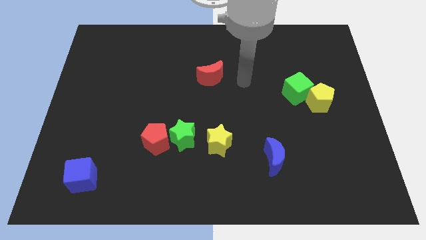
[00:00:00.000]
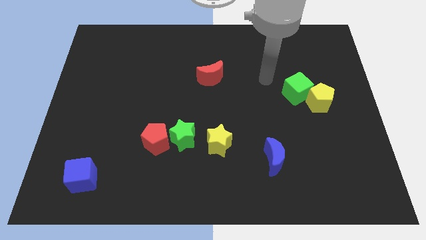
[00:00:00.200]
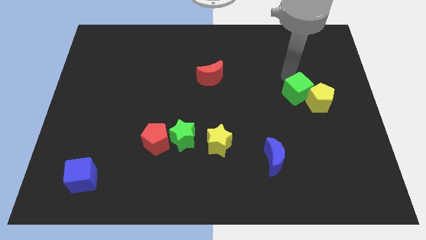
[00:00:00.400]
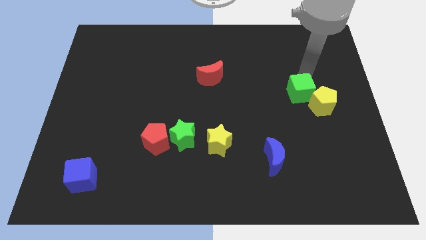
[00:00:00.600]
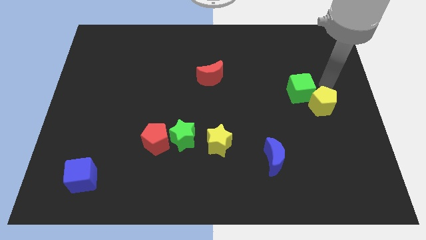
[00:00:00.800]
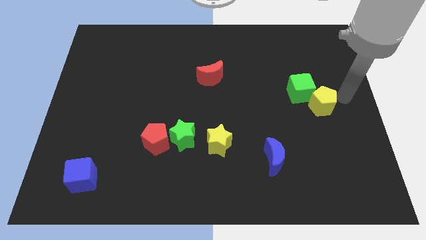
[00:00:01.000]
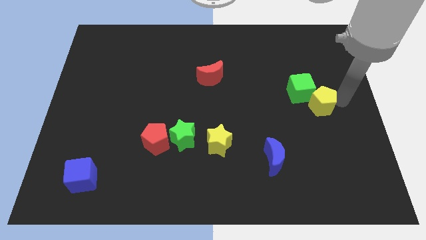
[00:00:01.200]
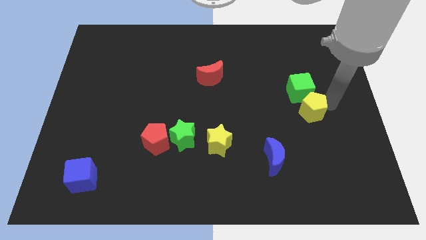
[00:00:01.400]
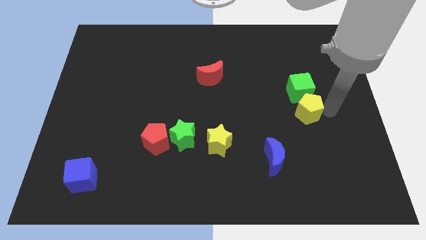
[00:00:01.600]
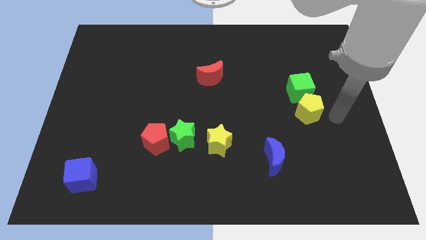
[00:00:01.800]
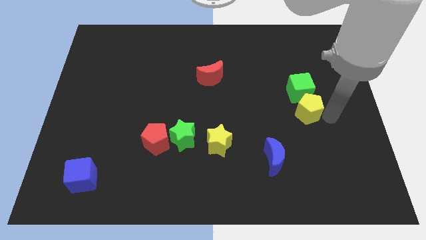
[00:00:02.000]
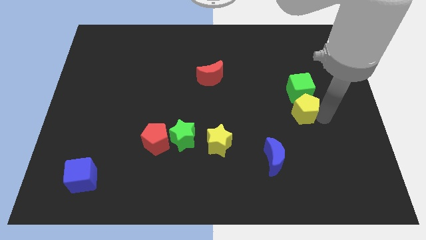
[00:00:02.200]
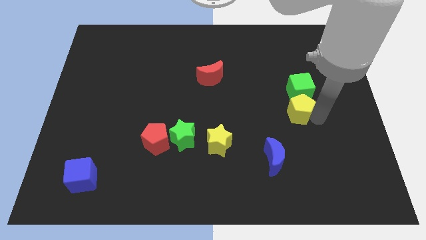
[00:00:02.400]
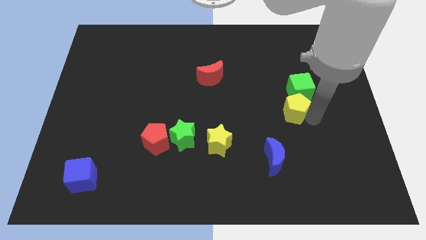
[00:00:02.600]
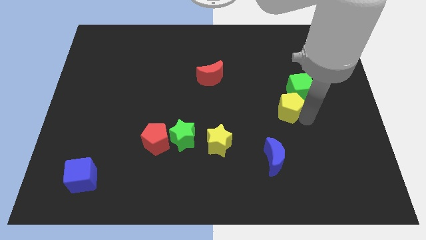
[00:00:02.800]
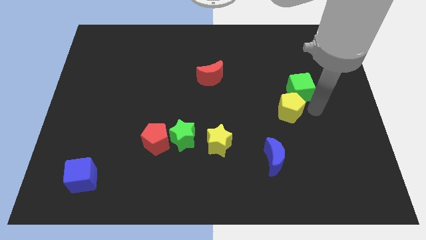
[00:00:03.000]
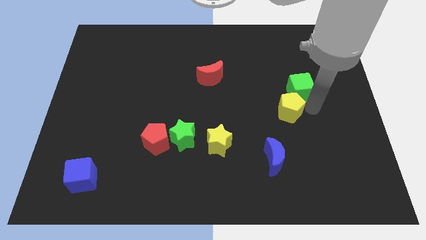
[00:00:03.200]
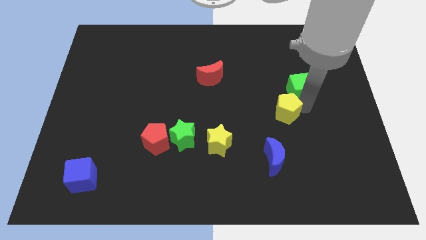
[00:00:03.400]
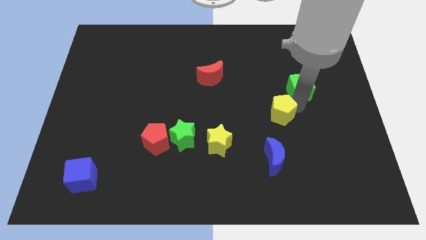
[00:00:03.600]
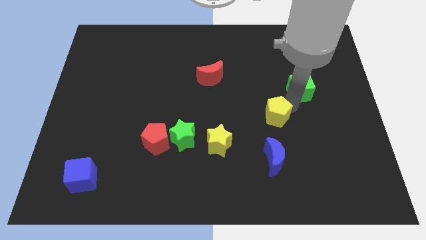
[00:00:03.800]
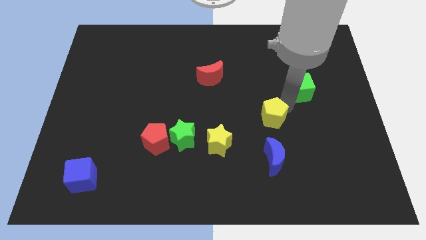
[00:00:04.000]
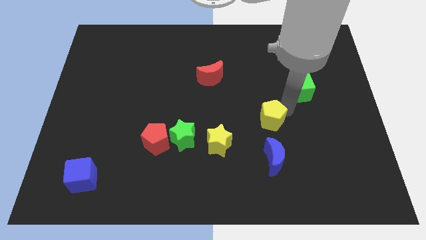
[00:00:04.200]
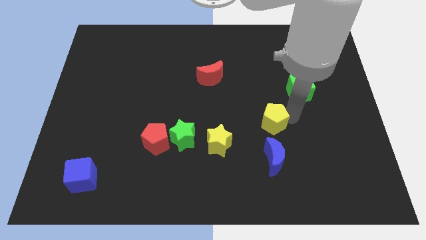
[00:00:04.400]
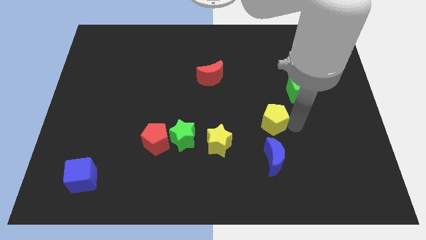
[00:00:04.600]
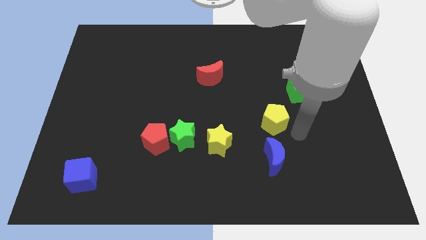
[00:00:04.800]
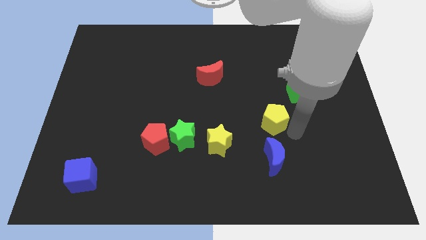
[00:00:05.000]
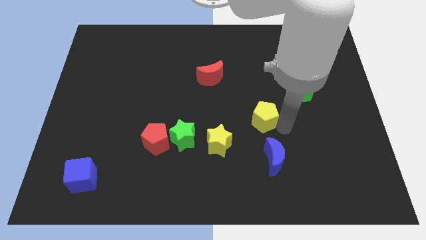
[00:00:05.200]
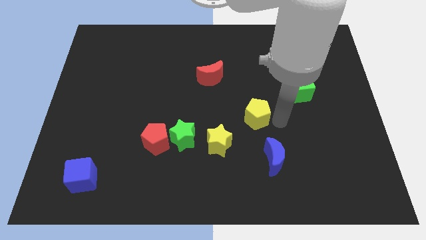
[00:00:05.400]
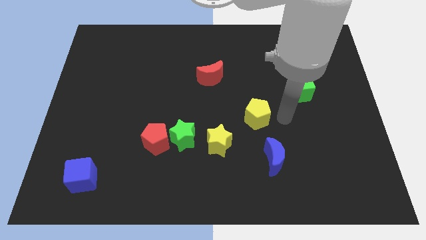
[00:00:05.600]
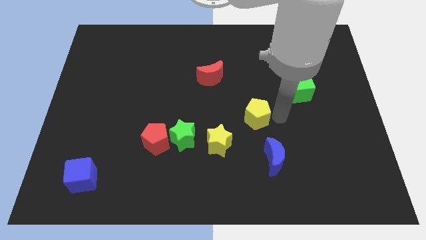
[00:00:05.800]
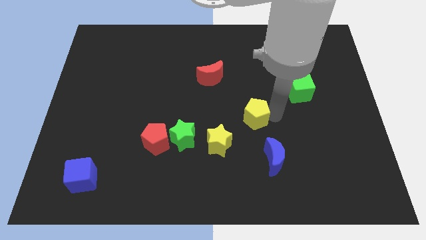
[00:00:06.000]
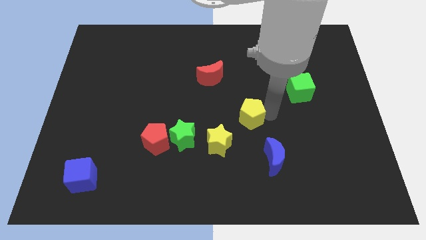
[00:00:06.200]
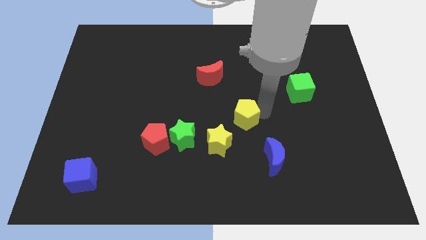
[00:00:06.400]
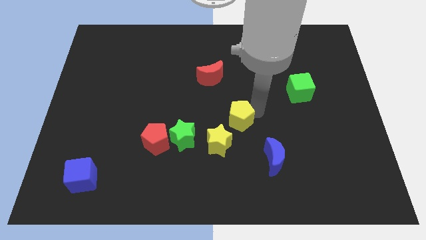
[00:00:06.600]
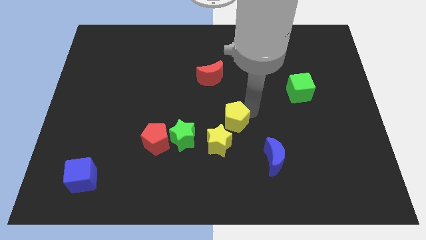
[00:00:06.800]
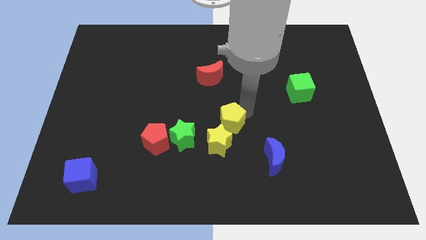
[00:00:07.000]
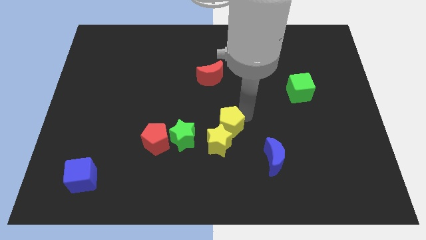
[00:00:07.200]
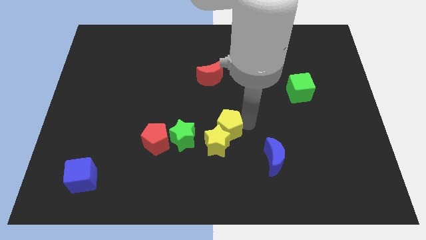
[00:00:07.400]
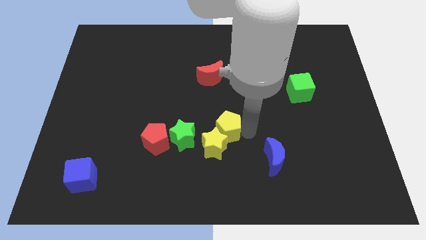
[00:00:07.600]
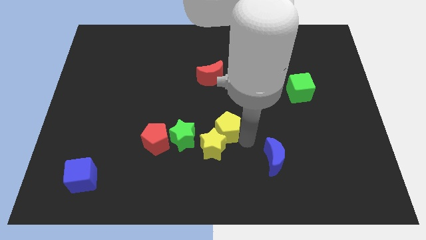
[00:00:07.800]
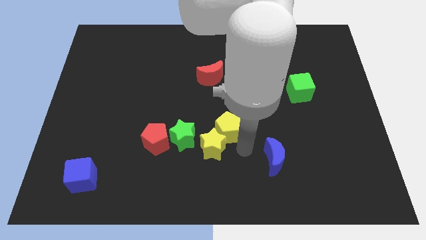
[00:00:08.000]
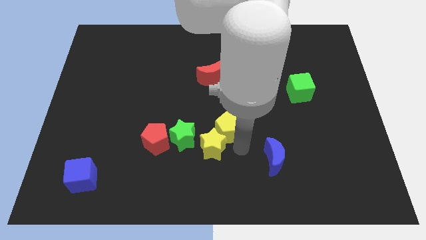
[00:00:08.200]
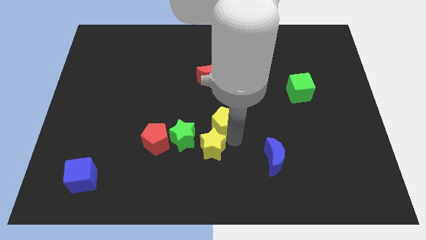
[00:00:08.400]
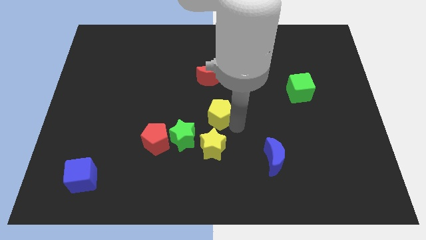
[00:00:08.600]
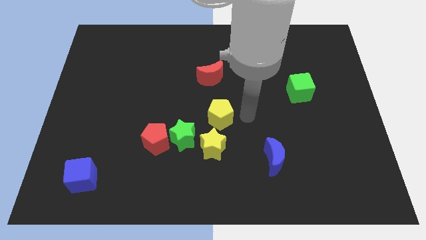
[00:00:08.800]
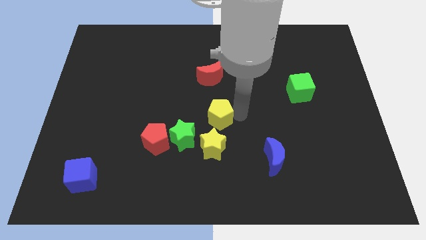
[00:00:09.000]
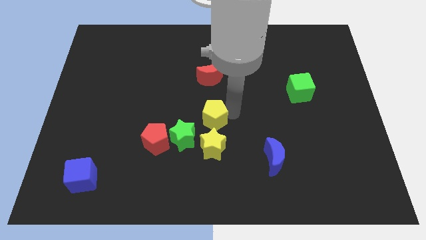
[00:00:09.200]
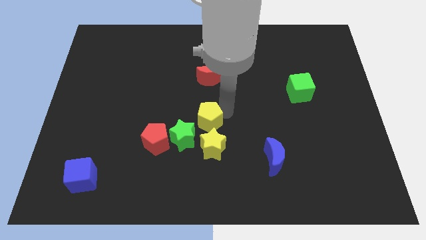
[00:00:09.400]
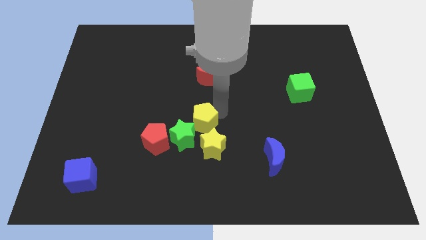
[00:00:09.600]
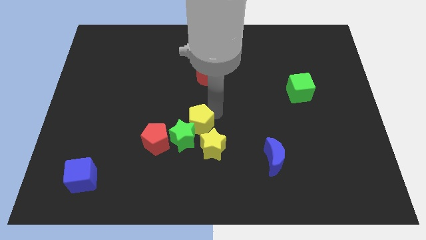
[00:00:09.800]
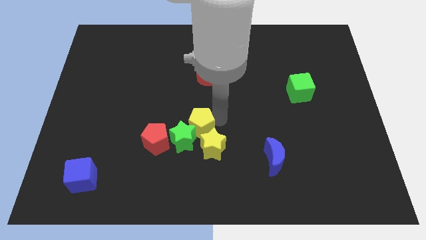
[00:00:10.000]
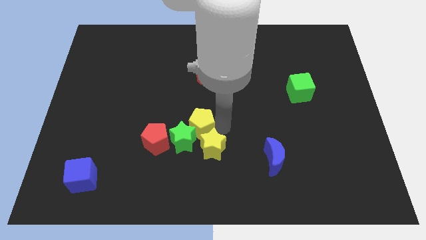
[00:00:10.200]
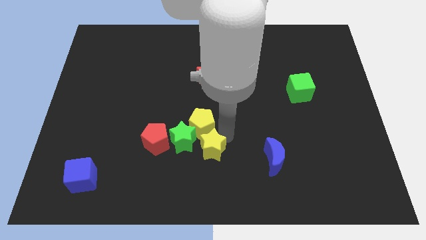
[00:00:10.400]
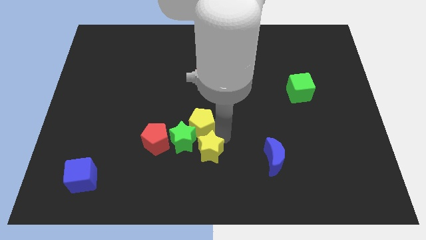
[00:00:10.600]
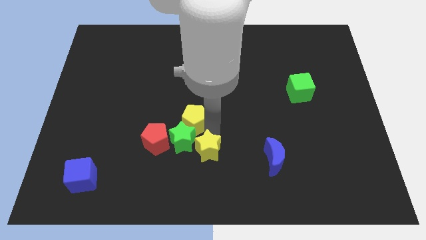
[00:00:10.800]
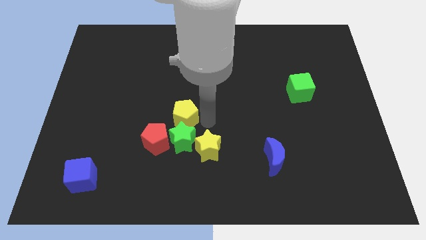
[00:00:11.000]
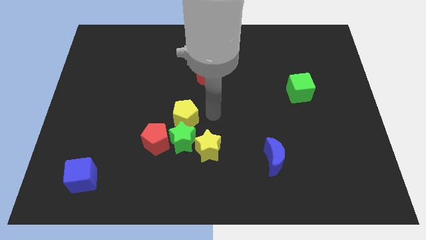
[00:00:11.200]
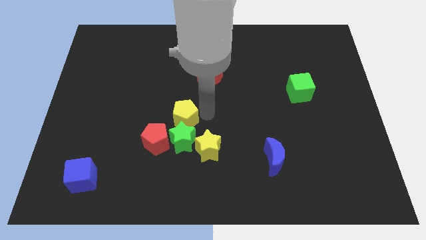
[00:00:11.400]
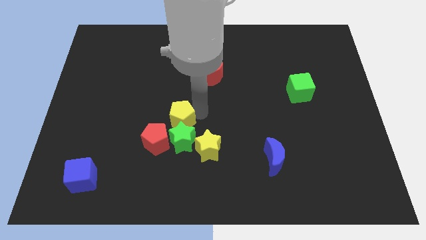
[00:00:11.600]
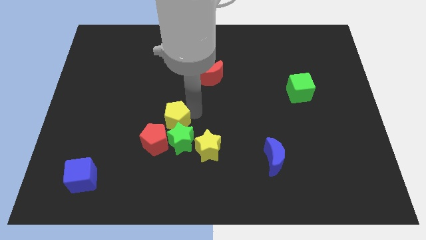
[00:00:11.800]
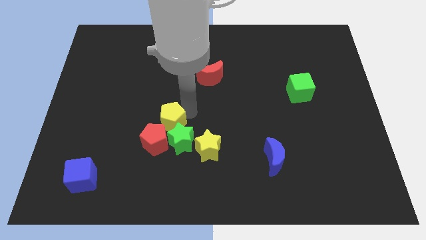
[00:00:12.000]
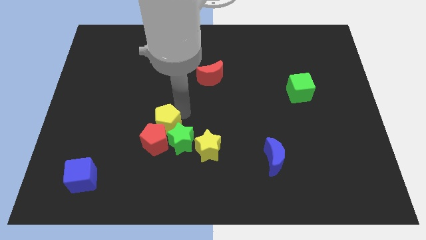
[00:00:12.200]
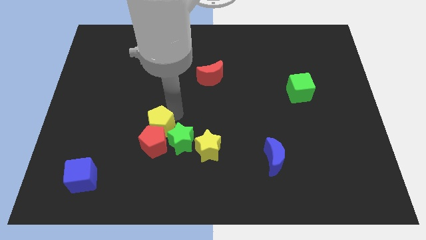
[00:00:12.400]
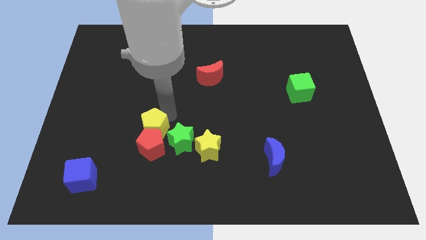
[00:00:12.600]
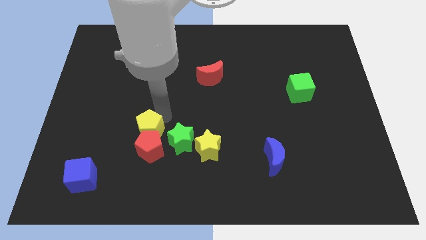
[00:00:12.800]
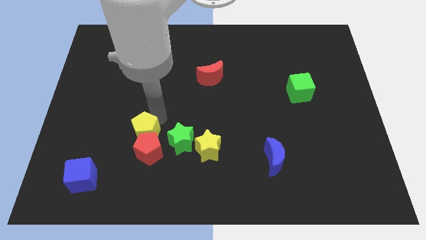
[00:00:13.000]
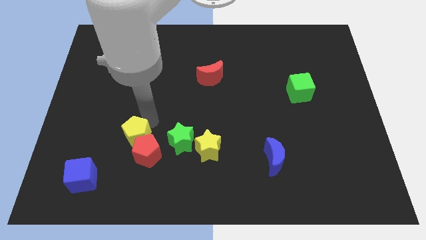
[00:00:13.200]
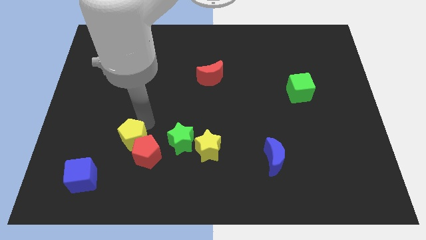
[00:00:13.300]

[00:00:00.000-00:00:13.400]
push the yellow pentagon just left of the red pentagon

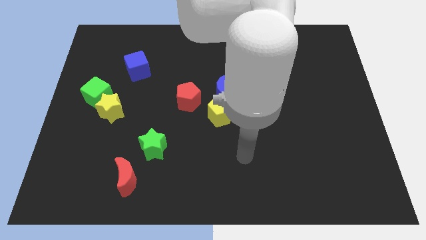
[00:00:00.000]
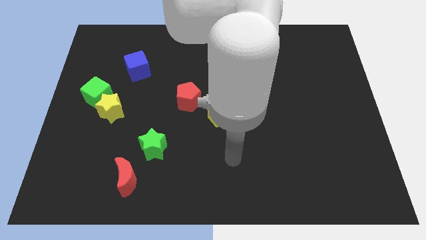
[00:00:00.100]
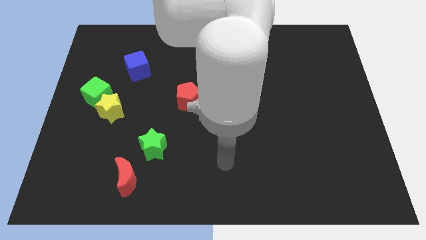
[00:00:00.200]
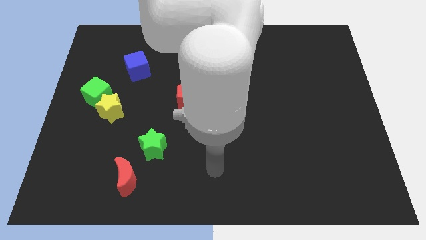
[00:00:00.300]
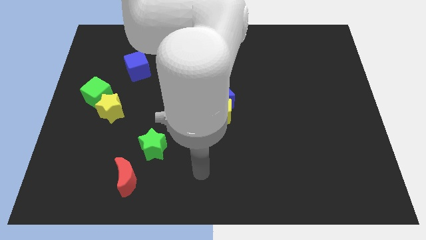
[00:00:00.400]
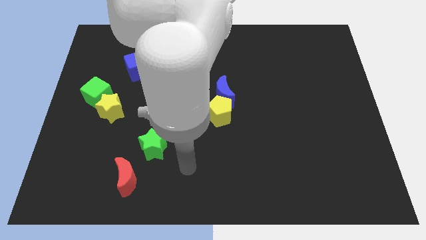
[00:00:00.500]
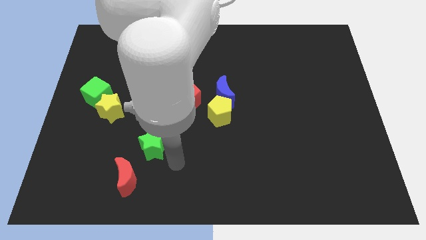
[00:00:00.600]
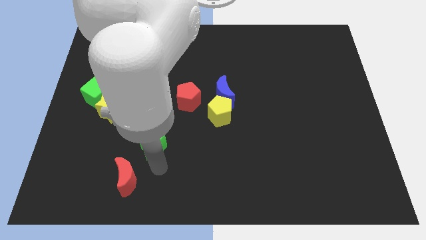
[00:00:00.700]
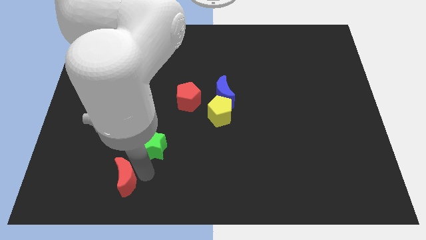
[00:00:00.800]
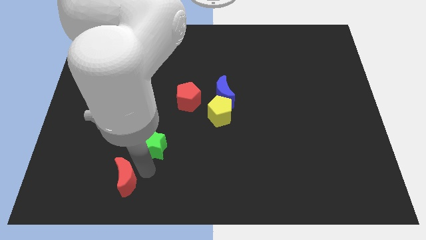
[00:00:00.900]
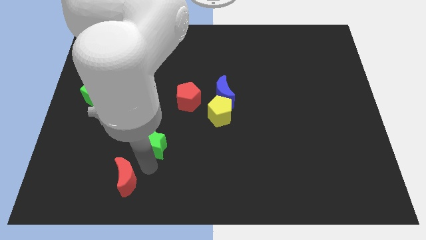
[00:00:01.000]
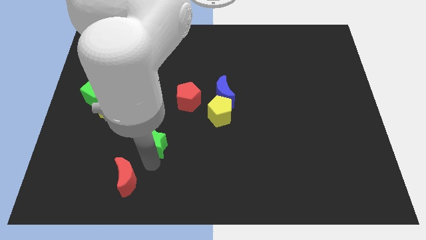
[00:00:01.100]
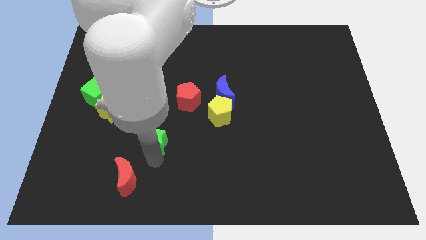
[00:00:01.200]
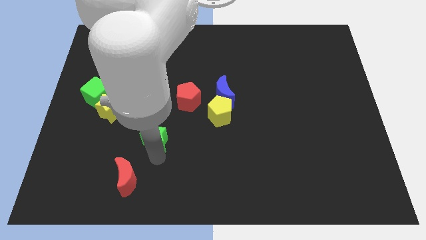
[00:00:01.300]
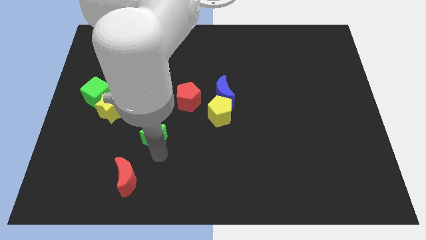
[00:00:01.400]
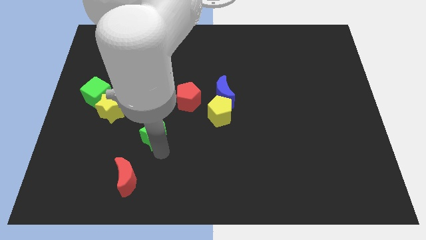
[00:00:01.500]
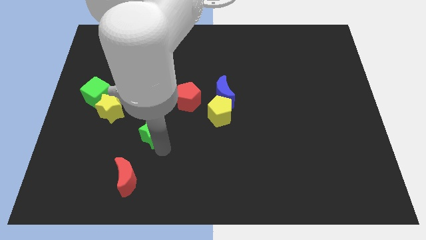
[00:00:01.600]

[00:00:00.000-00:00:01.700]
slide the green star to the bottom left side of the red pentagon
